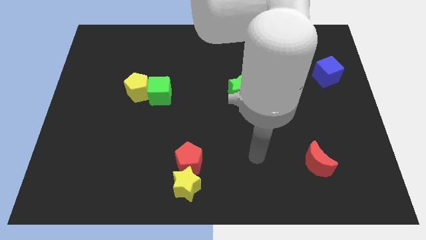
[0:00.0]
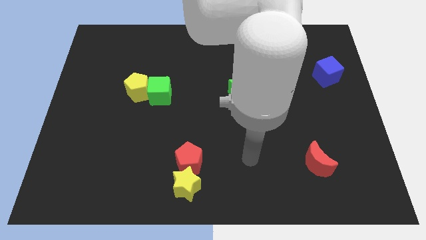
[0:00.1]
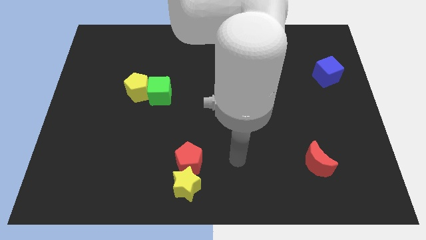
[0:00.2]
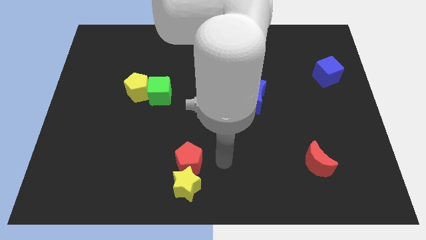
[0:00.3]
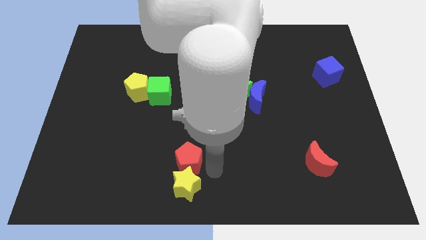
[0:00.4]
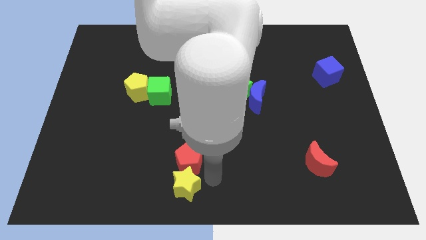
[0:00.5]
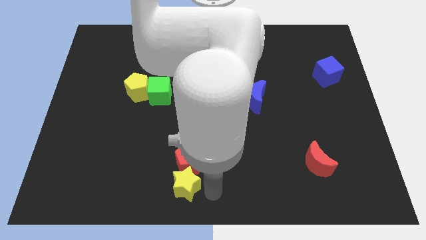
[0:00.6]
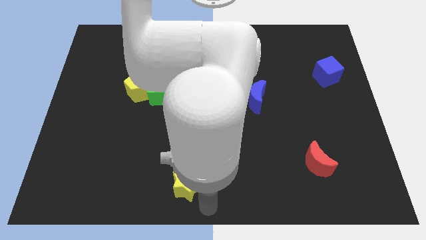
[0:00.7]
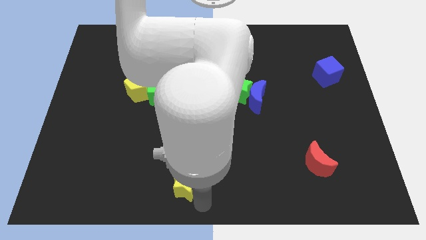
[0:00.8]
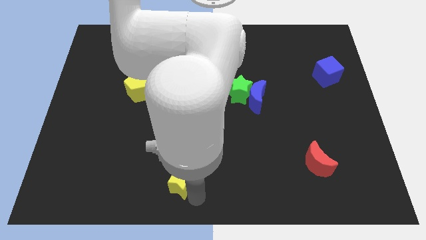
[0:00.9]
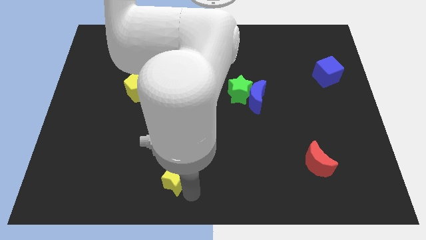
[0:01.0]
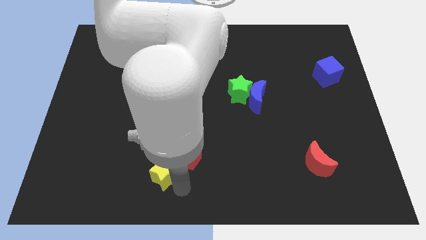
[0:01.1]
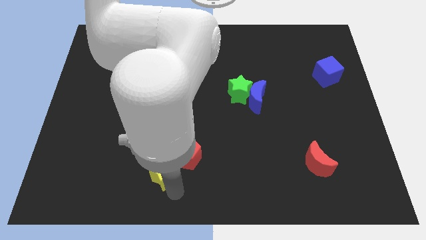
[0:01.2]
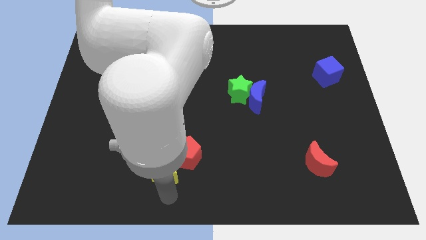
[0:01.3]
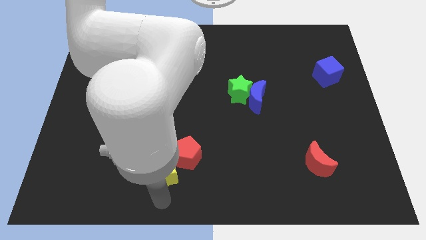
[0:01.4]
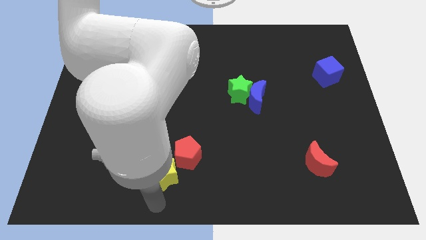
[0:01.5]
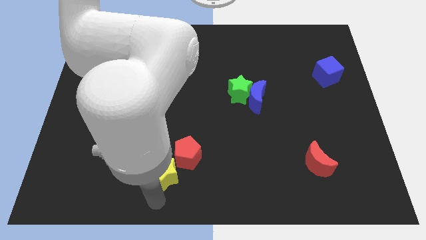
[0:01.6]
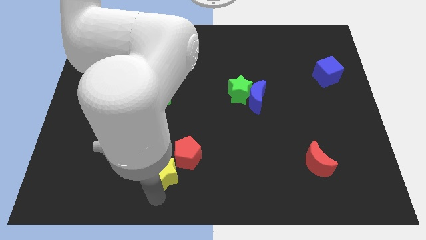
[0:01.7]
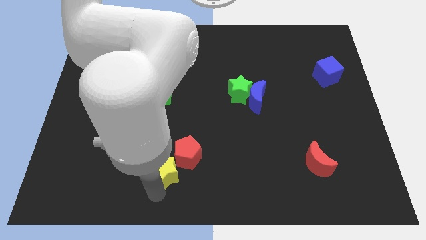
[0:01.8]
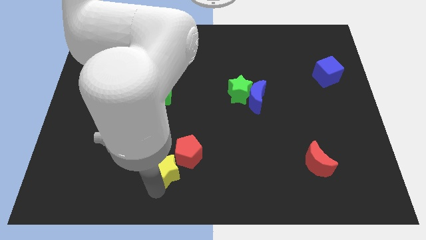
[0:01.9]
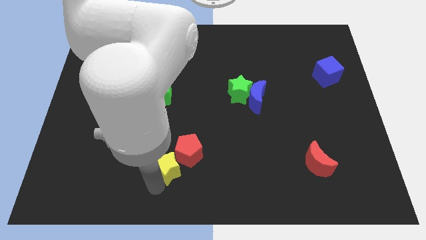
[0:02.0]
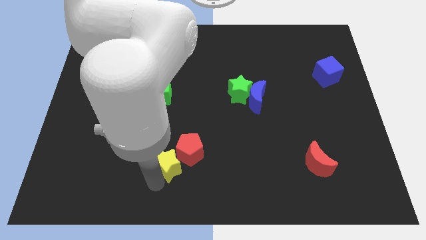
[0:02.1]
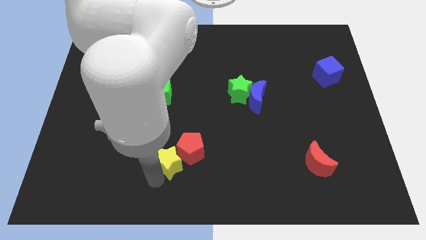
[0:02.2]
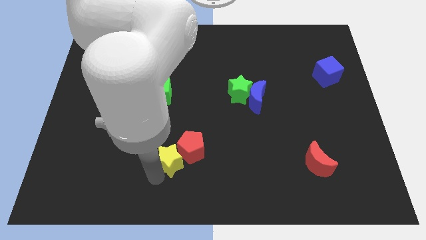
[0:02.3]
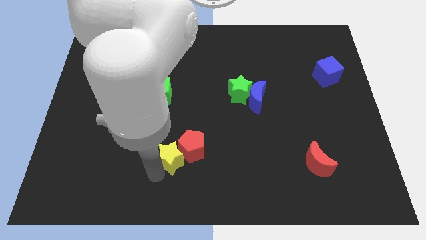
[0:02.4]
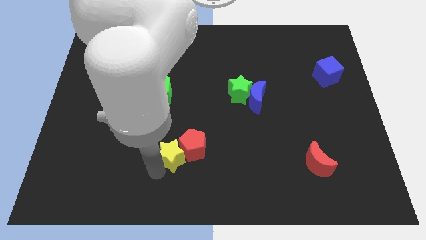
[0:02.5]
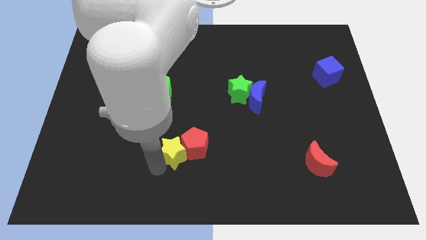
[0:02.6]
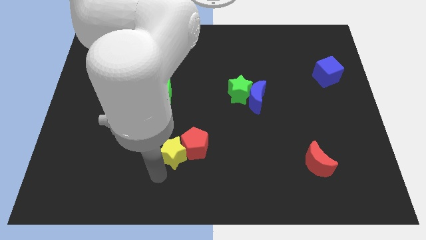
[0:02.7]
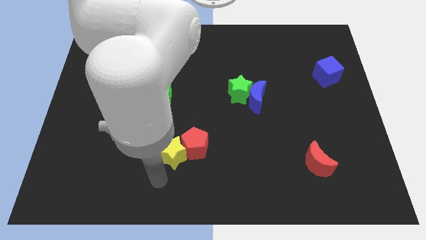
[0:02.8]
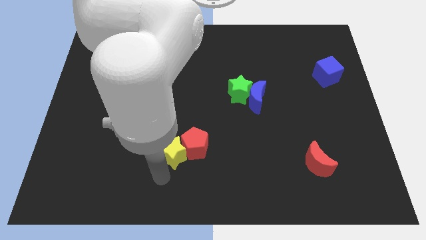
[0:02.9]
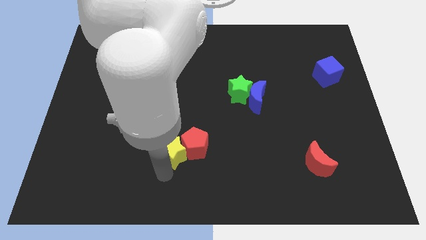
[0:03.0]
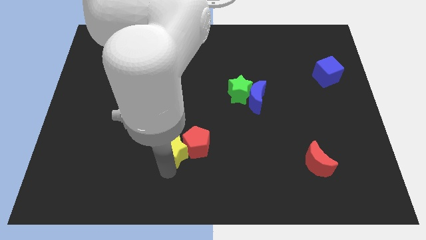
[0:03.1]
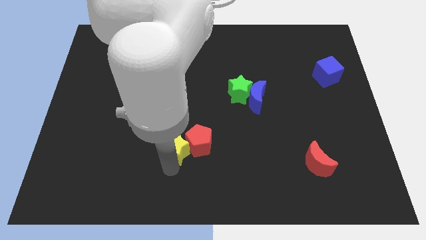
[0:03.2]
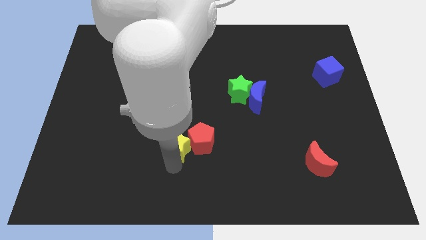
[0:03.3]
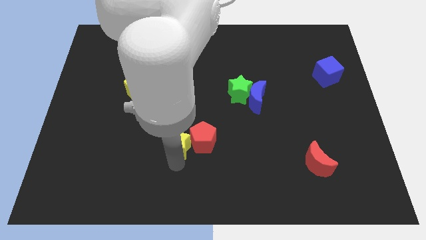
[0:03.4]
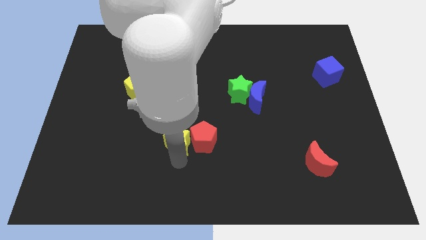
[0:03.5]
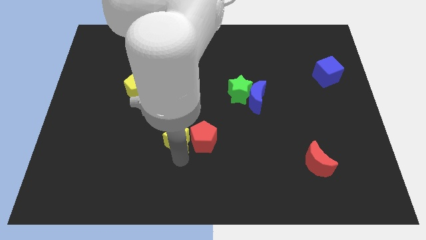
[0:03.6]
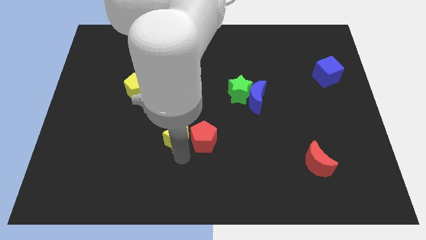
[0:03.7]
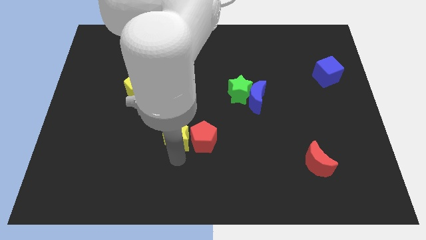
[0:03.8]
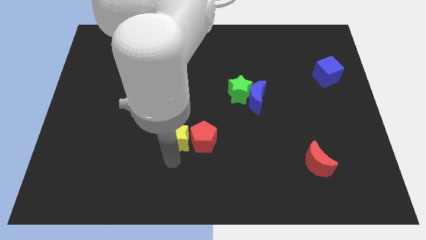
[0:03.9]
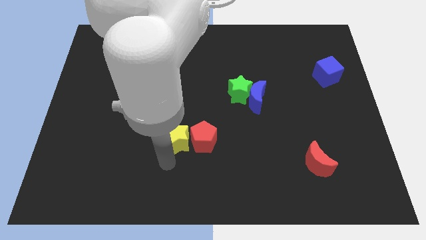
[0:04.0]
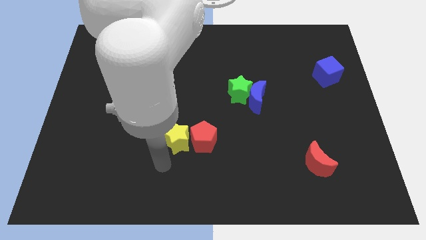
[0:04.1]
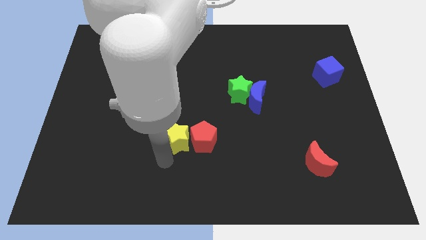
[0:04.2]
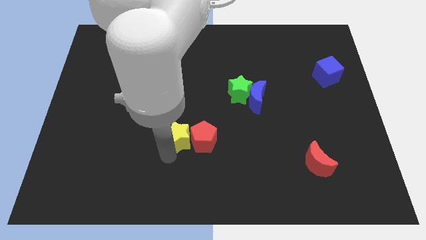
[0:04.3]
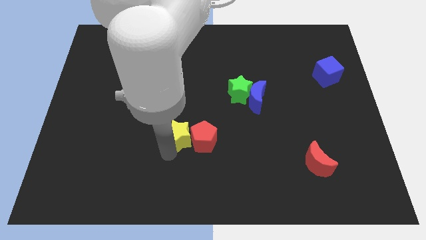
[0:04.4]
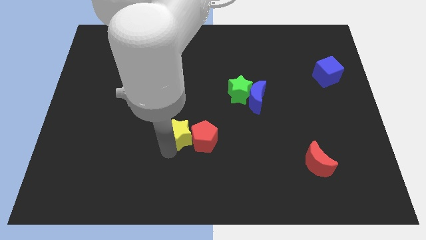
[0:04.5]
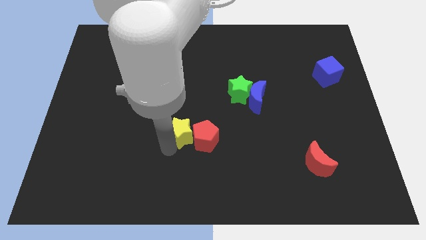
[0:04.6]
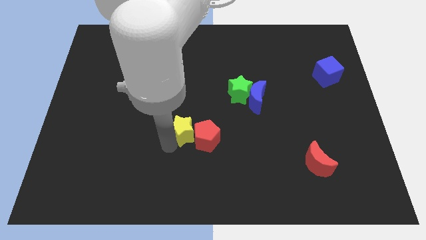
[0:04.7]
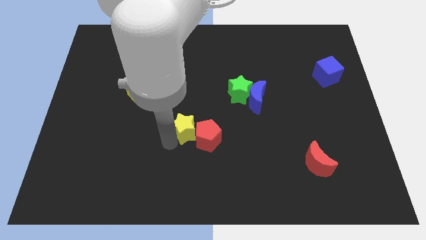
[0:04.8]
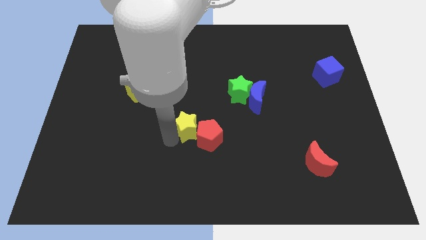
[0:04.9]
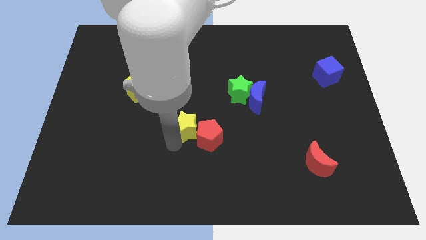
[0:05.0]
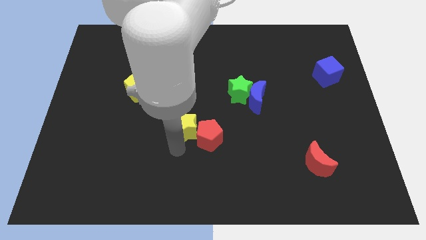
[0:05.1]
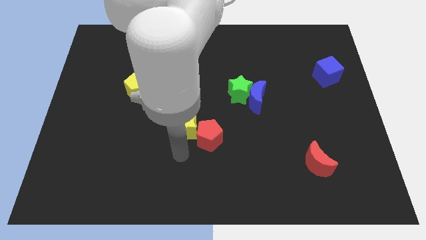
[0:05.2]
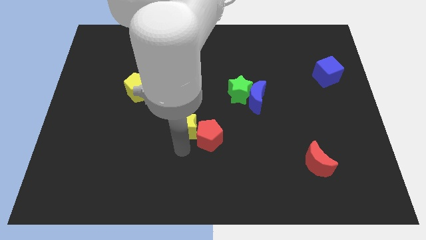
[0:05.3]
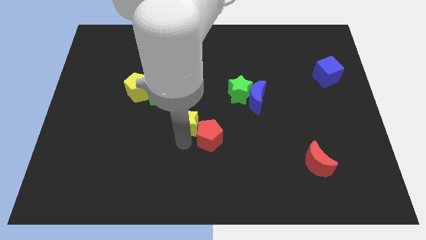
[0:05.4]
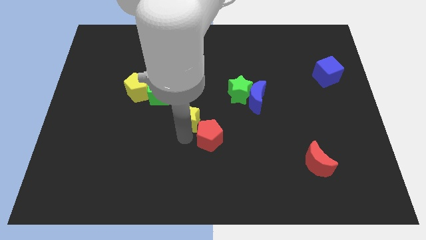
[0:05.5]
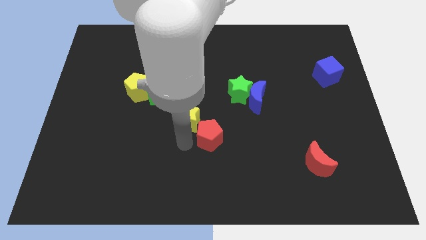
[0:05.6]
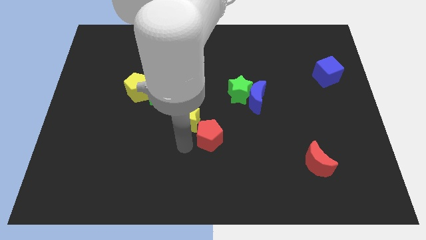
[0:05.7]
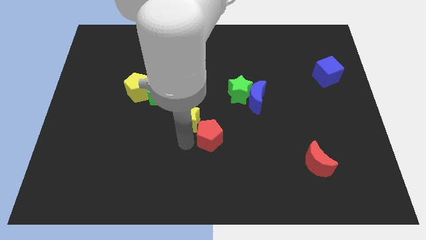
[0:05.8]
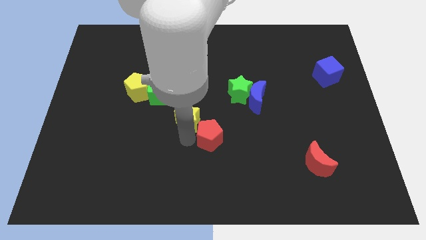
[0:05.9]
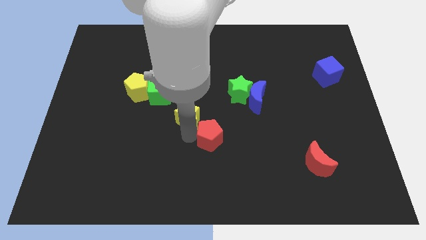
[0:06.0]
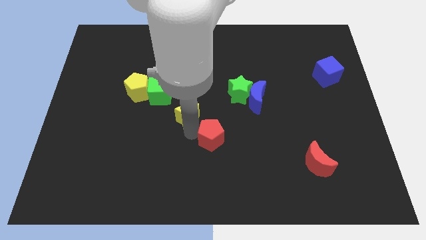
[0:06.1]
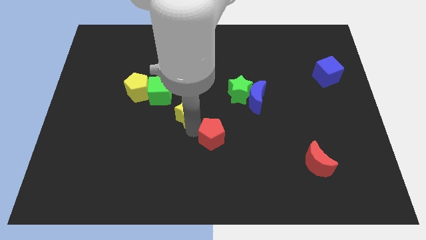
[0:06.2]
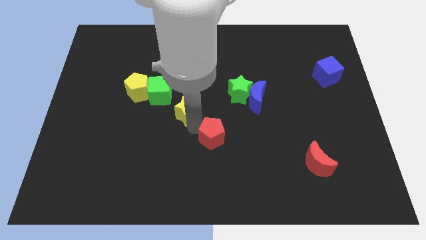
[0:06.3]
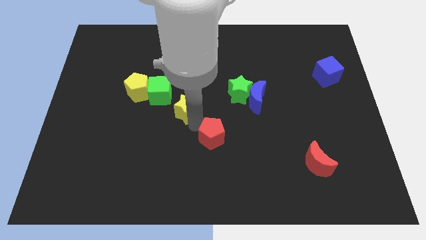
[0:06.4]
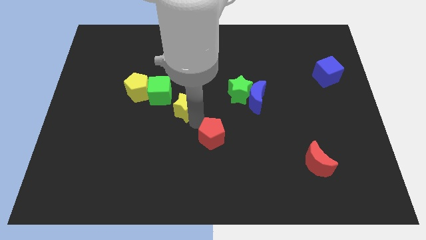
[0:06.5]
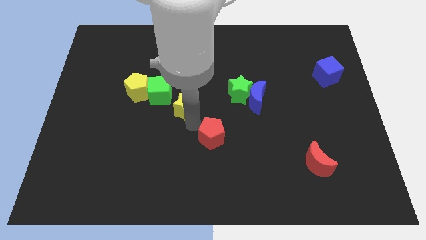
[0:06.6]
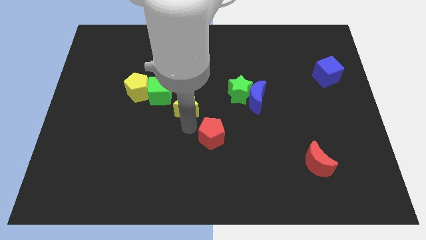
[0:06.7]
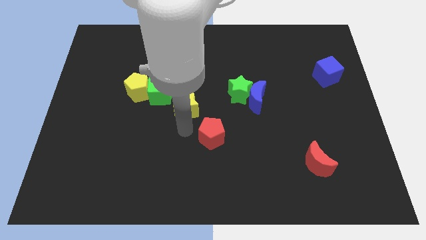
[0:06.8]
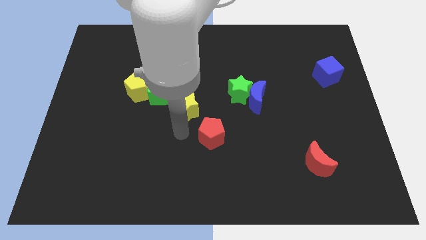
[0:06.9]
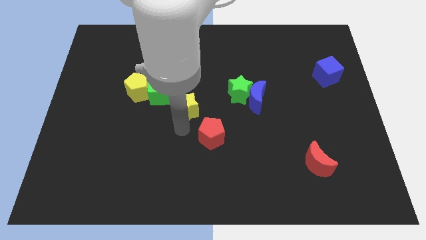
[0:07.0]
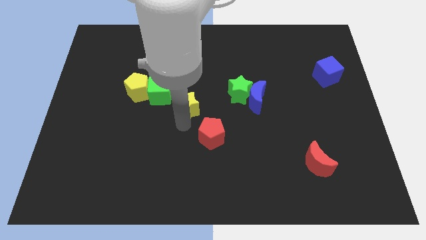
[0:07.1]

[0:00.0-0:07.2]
slide the yellow star up

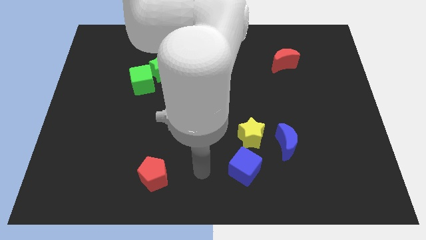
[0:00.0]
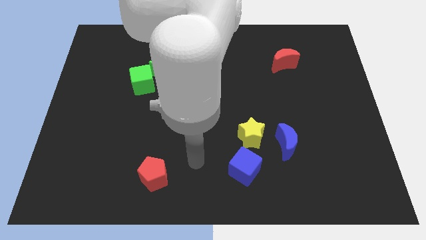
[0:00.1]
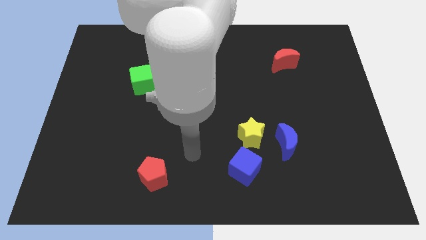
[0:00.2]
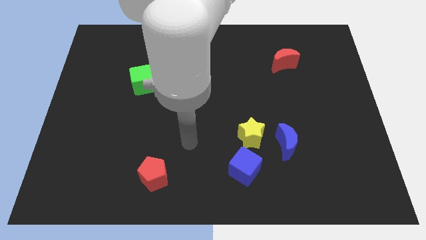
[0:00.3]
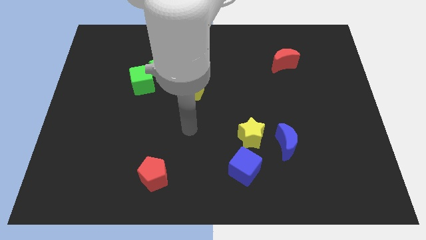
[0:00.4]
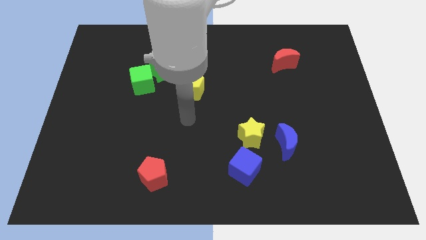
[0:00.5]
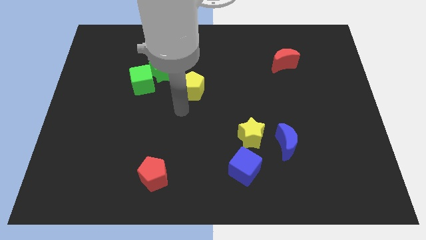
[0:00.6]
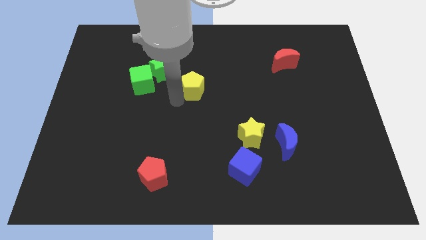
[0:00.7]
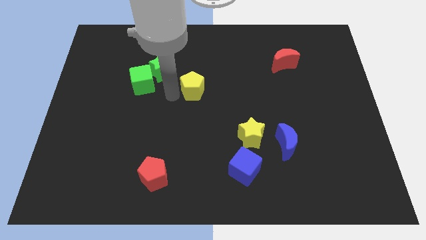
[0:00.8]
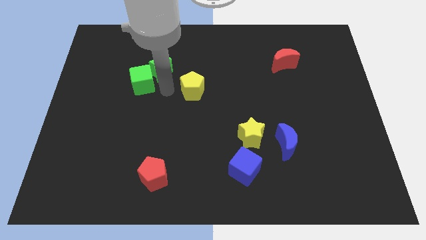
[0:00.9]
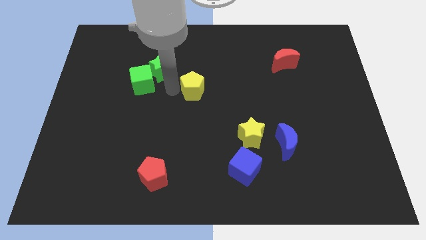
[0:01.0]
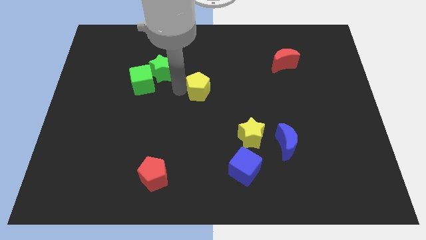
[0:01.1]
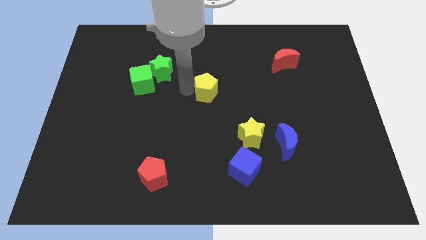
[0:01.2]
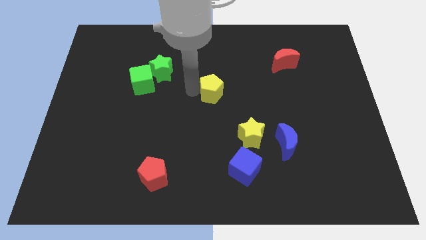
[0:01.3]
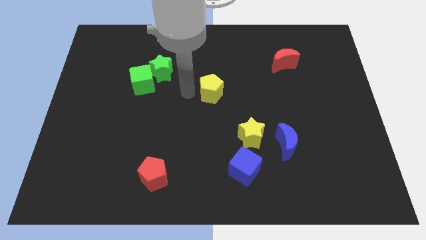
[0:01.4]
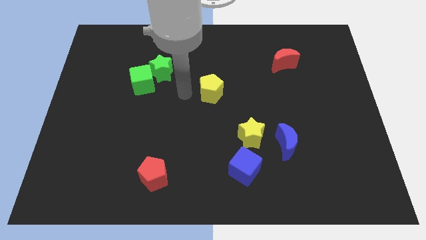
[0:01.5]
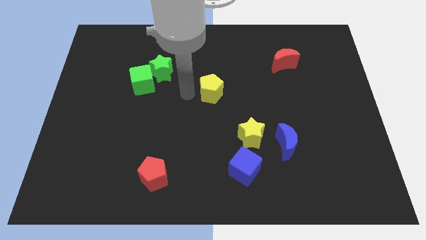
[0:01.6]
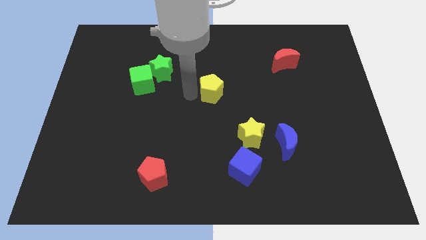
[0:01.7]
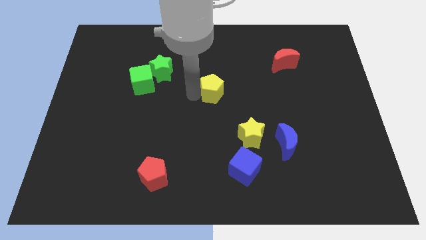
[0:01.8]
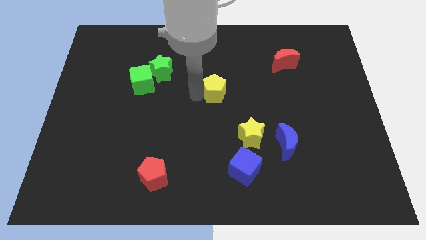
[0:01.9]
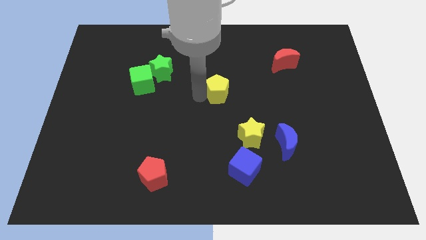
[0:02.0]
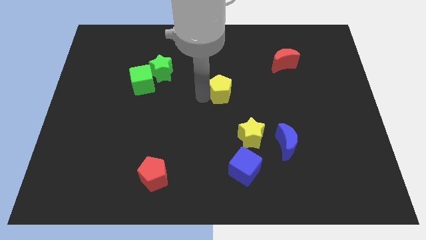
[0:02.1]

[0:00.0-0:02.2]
push the yellow pentagon right a little bit
